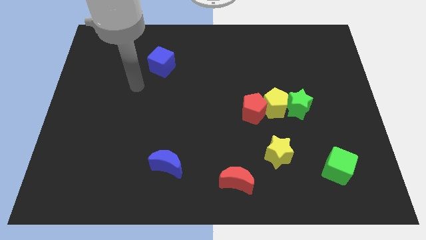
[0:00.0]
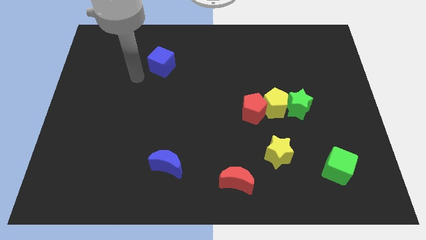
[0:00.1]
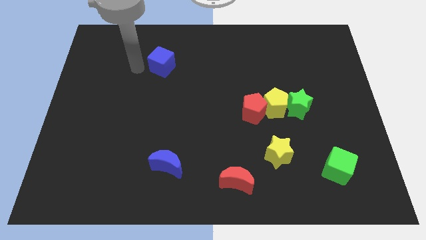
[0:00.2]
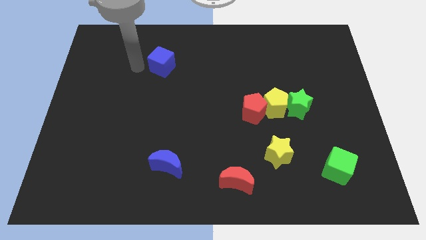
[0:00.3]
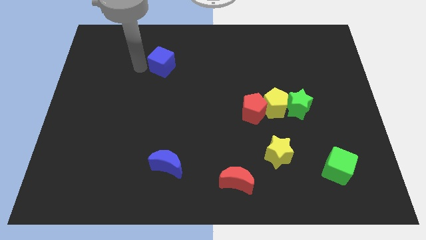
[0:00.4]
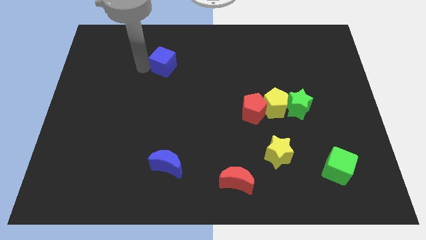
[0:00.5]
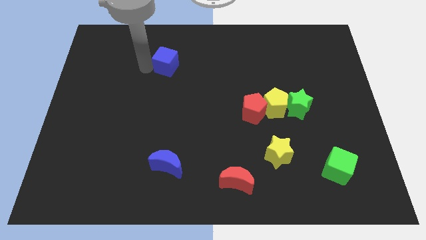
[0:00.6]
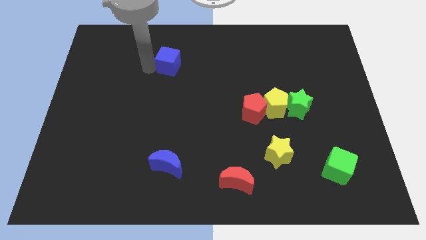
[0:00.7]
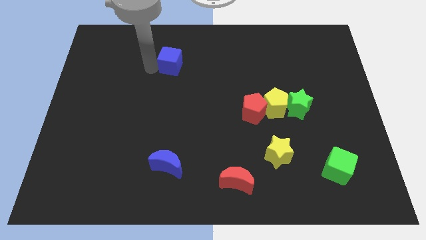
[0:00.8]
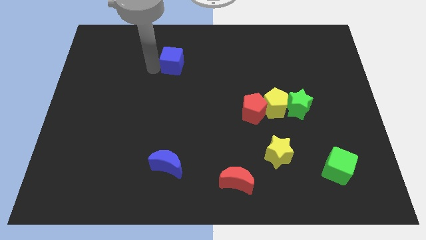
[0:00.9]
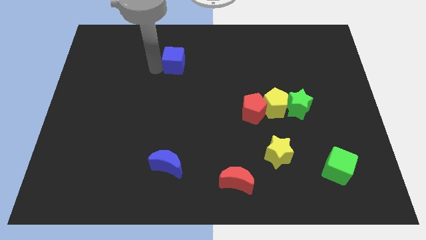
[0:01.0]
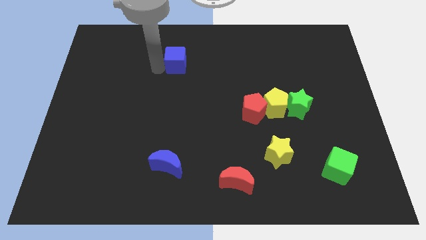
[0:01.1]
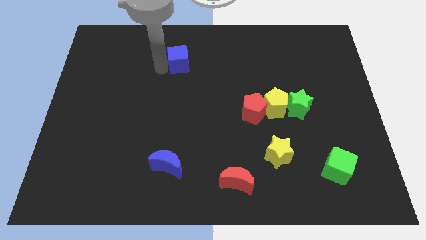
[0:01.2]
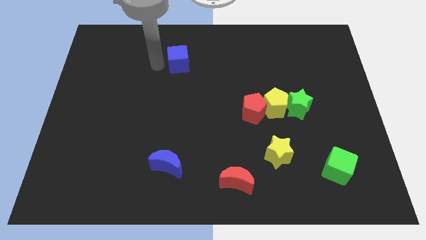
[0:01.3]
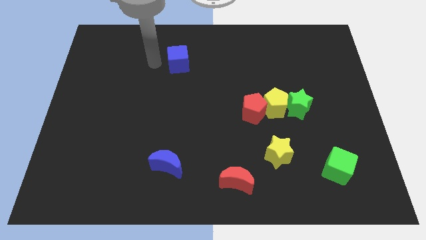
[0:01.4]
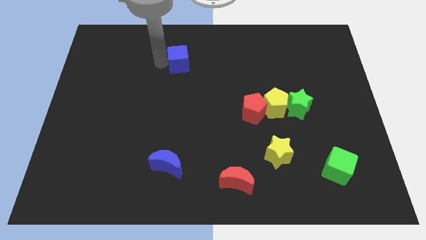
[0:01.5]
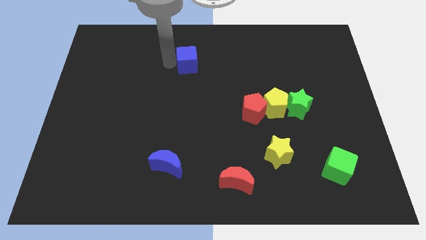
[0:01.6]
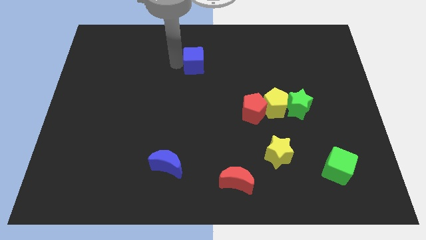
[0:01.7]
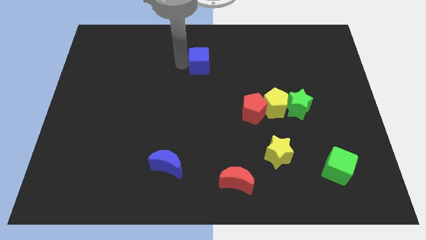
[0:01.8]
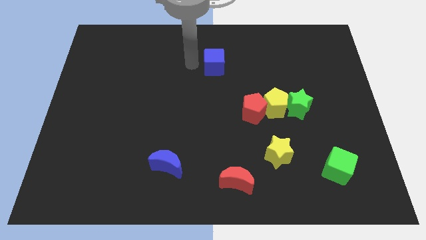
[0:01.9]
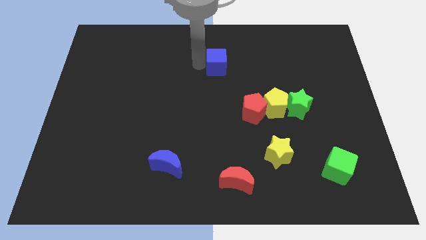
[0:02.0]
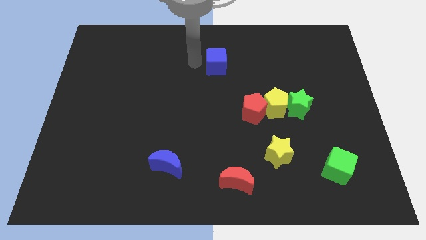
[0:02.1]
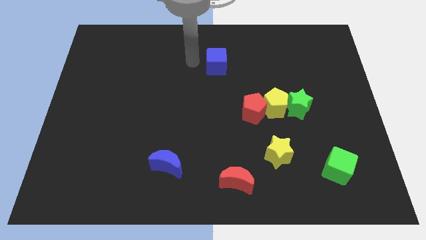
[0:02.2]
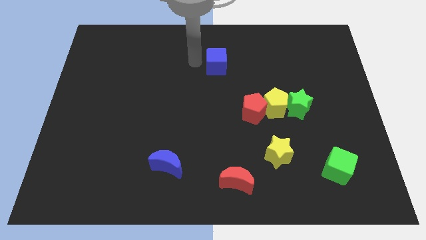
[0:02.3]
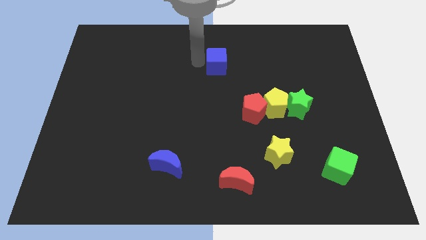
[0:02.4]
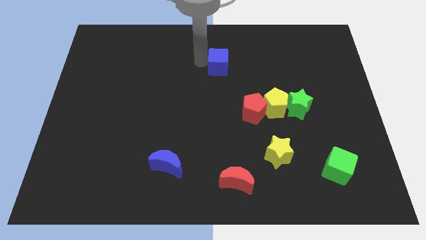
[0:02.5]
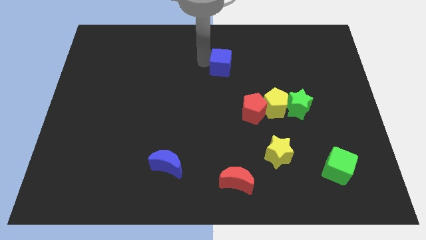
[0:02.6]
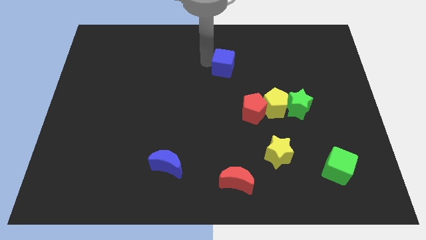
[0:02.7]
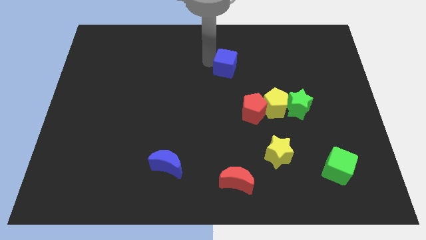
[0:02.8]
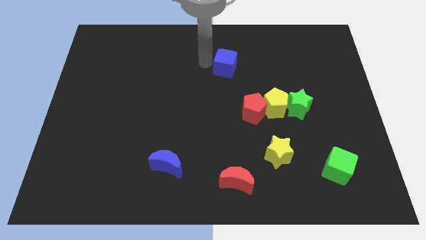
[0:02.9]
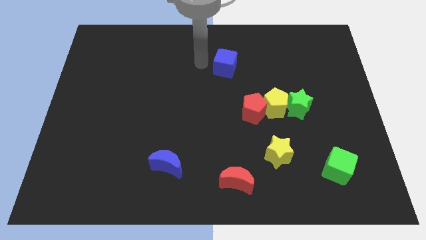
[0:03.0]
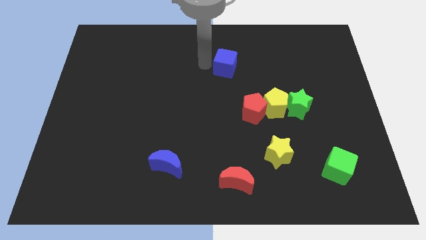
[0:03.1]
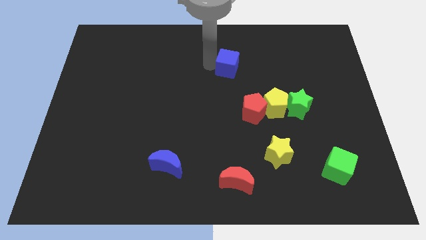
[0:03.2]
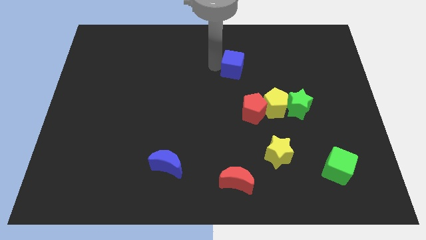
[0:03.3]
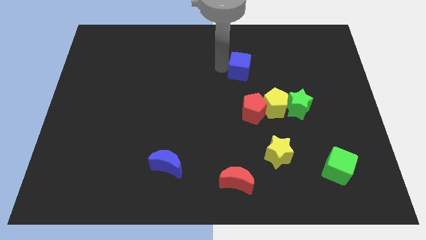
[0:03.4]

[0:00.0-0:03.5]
slide the blue cube right

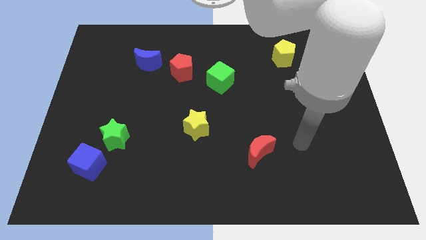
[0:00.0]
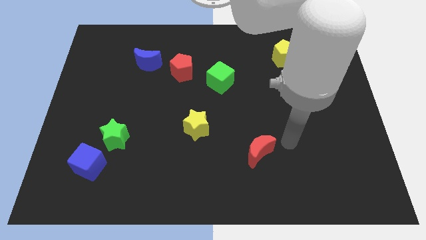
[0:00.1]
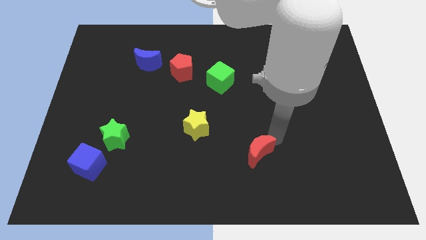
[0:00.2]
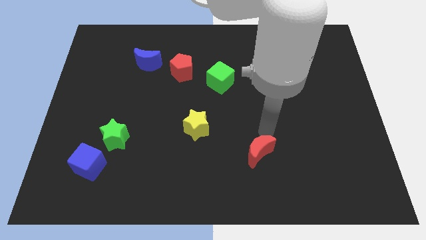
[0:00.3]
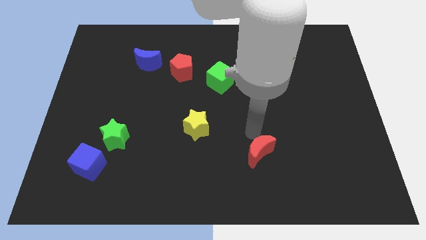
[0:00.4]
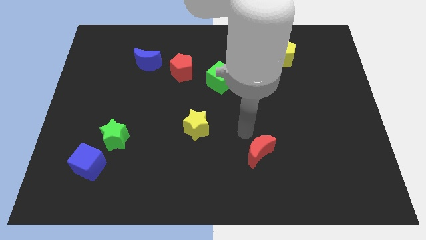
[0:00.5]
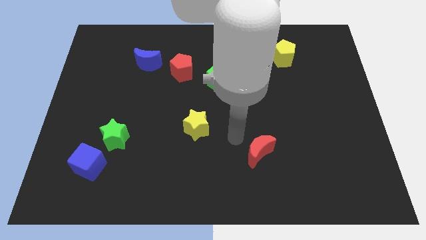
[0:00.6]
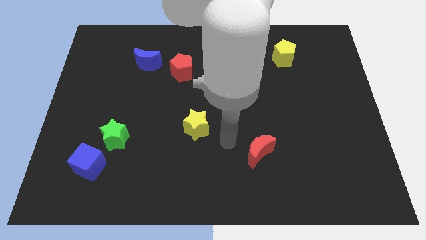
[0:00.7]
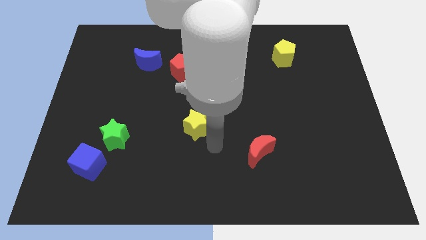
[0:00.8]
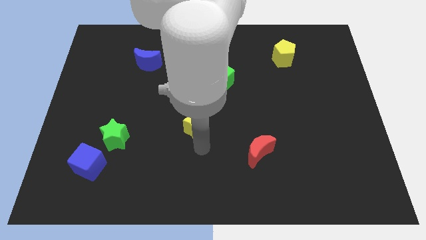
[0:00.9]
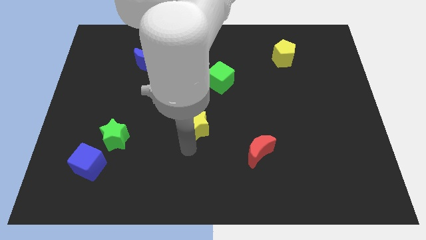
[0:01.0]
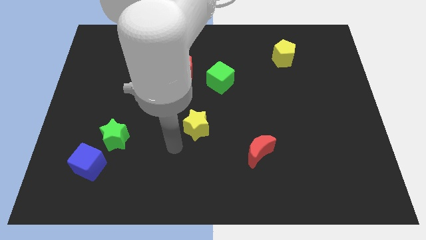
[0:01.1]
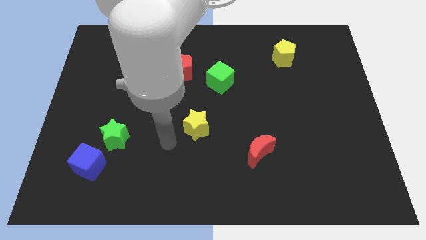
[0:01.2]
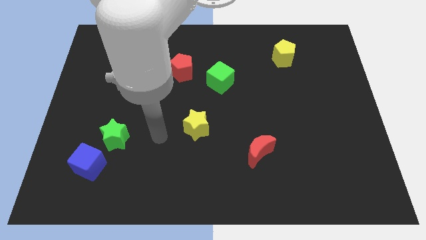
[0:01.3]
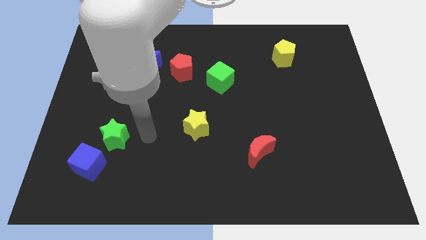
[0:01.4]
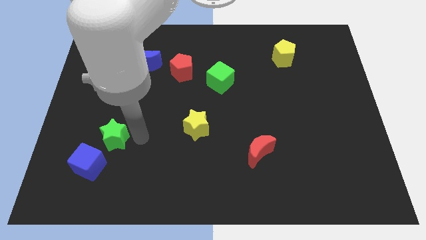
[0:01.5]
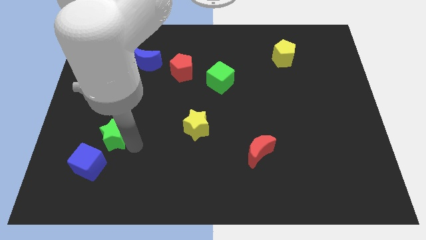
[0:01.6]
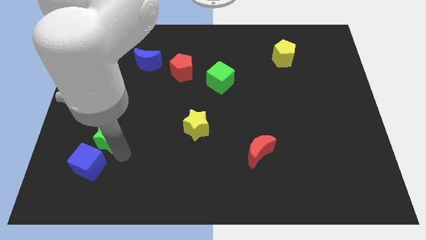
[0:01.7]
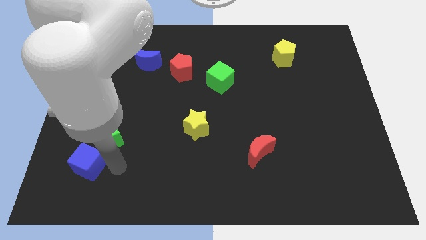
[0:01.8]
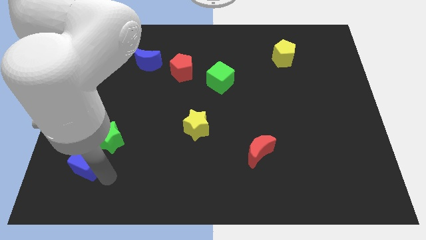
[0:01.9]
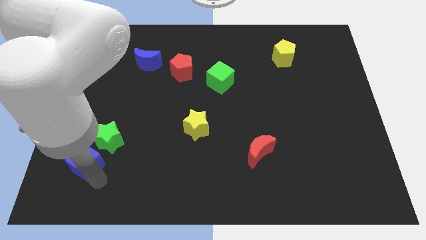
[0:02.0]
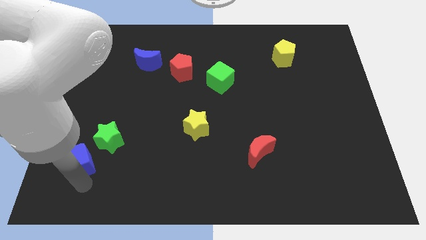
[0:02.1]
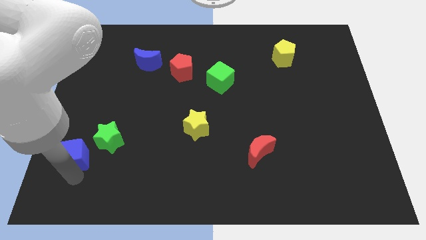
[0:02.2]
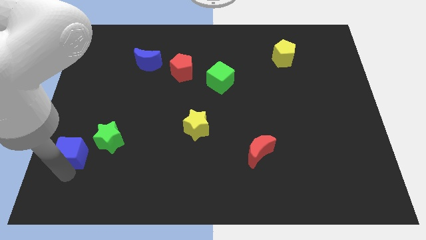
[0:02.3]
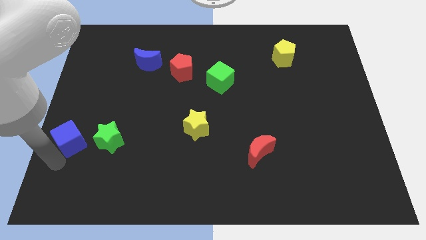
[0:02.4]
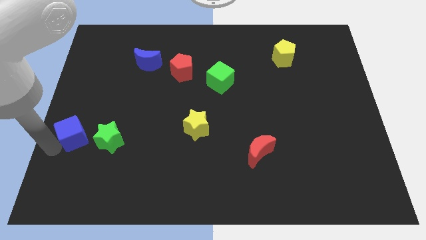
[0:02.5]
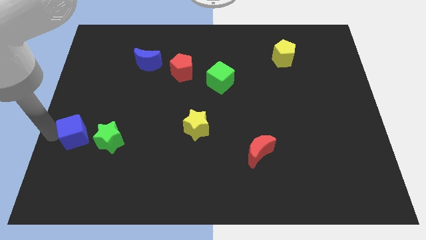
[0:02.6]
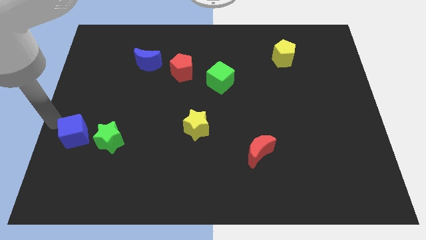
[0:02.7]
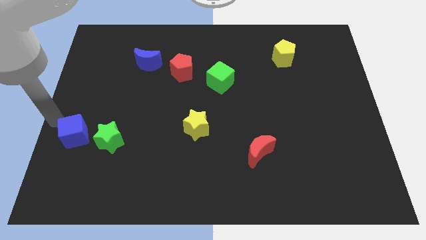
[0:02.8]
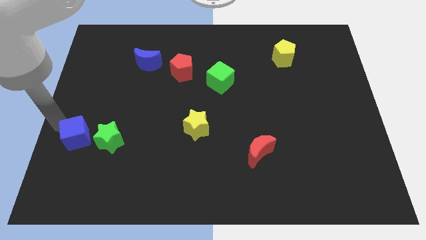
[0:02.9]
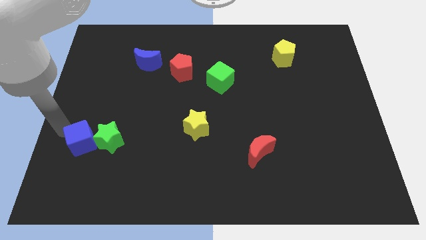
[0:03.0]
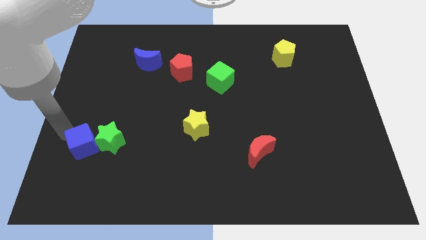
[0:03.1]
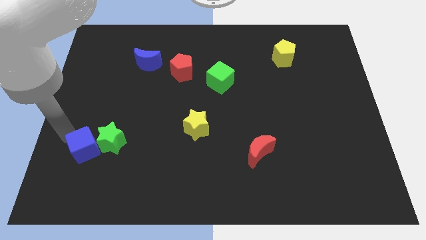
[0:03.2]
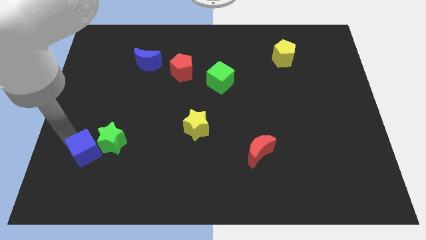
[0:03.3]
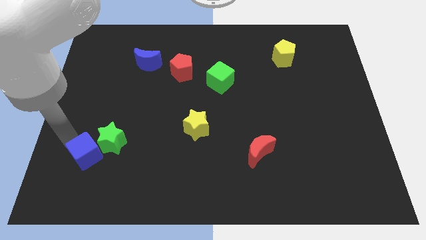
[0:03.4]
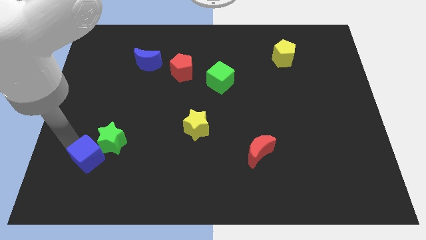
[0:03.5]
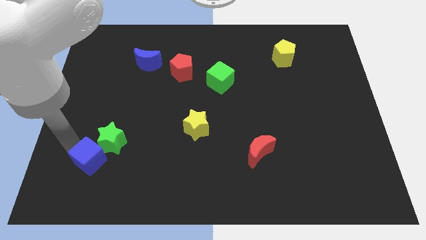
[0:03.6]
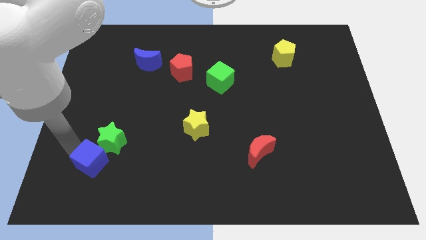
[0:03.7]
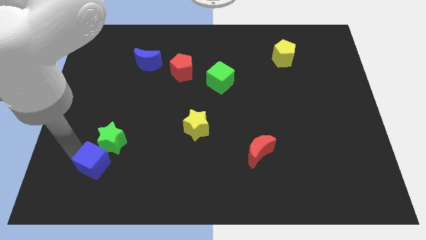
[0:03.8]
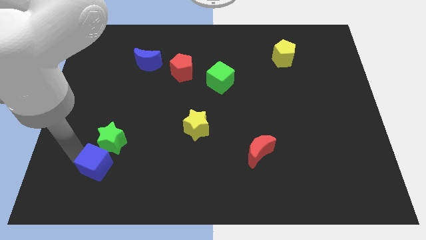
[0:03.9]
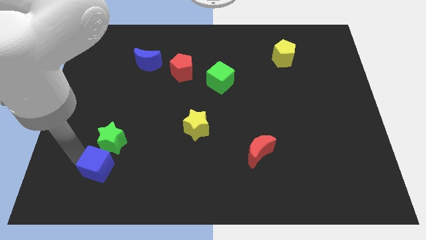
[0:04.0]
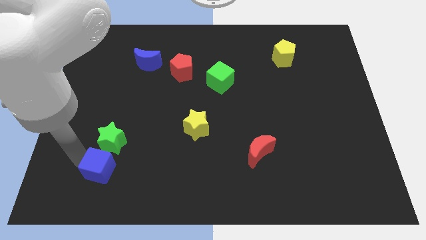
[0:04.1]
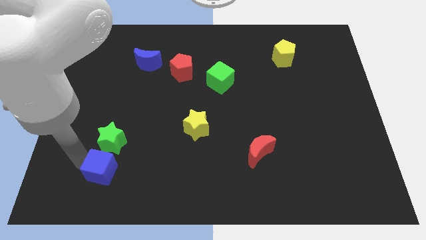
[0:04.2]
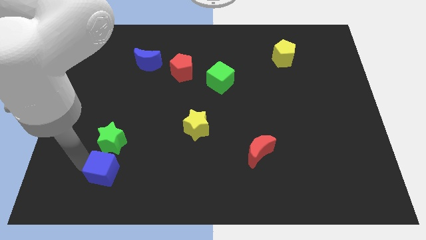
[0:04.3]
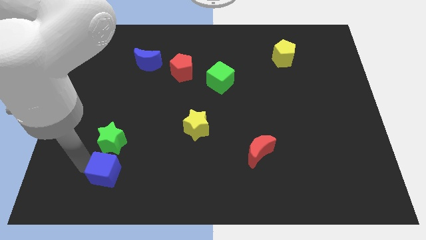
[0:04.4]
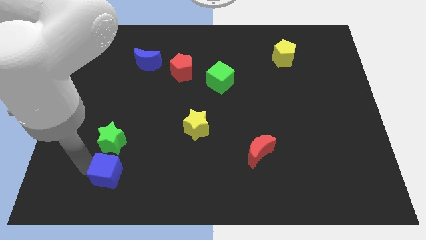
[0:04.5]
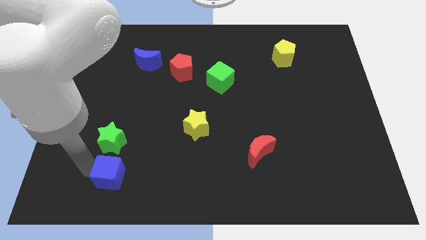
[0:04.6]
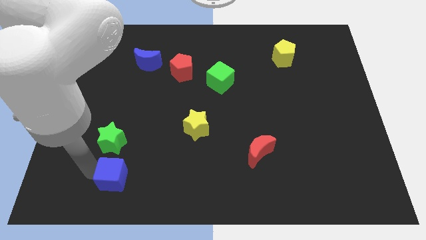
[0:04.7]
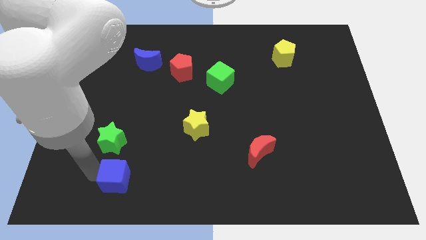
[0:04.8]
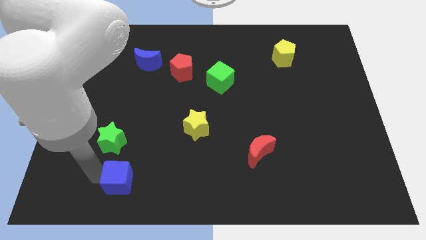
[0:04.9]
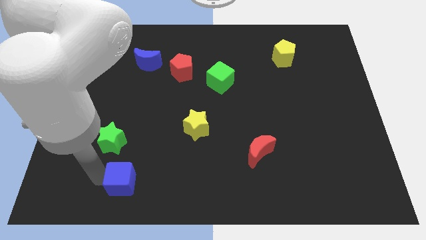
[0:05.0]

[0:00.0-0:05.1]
slightly move the blue cube right
